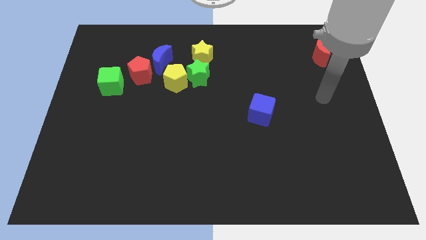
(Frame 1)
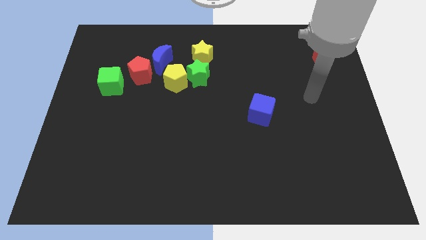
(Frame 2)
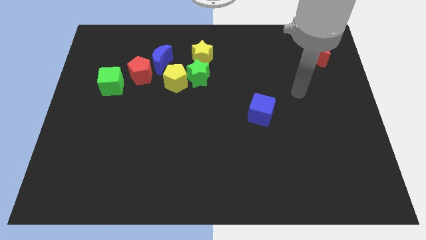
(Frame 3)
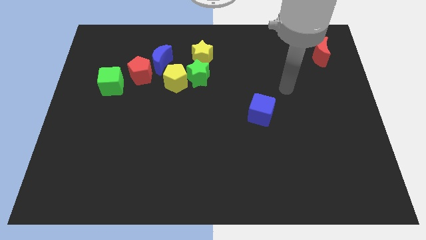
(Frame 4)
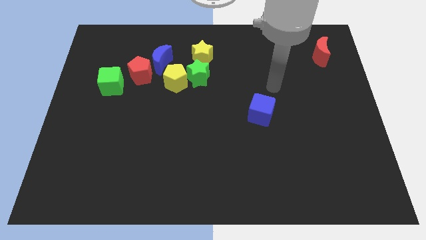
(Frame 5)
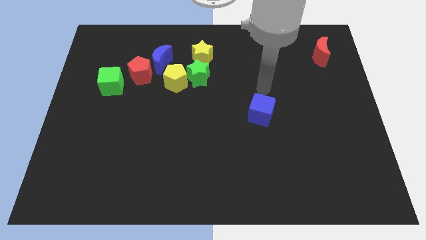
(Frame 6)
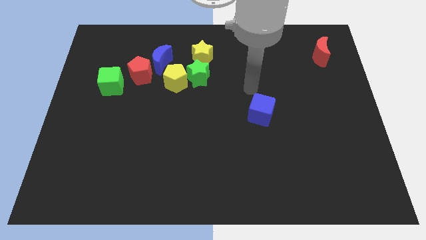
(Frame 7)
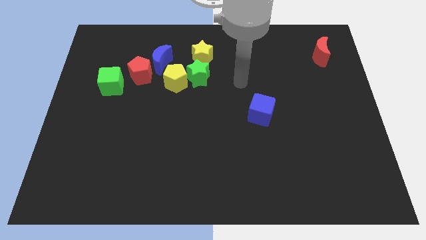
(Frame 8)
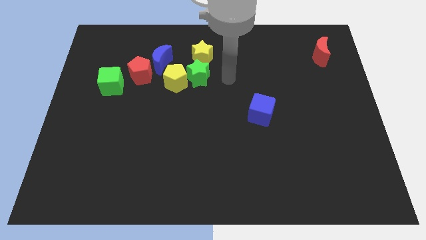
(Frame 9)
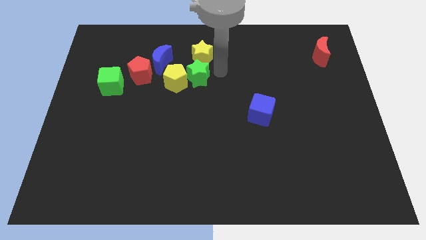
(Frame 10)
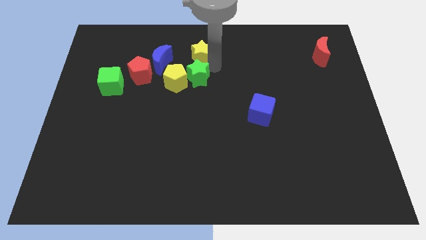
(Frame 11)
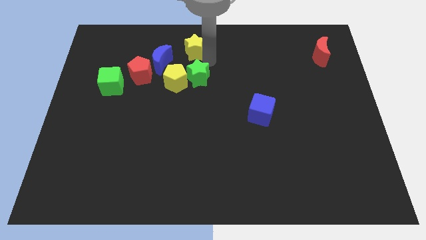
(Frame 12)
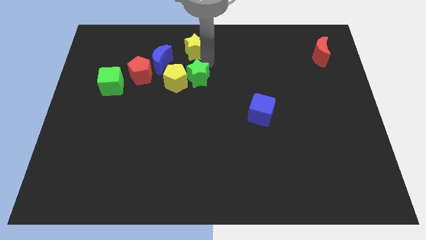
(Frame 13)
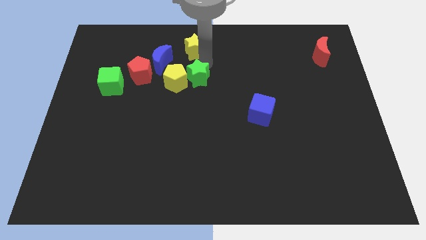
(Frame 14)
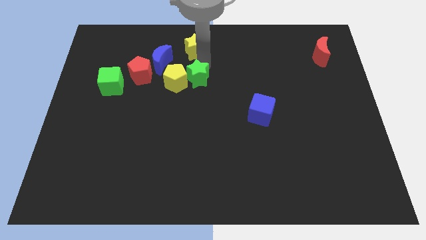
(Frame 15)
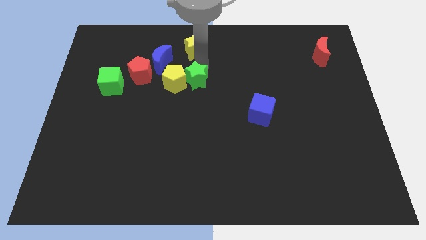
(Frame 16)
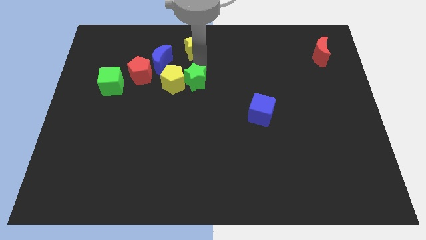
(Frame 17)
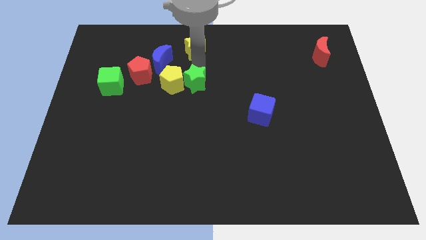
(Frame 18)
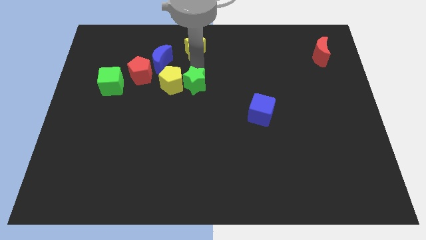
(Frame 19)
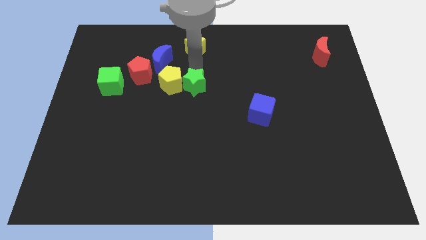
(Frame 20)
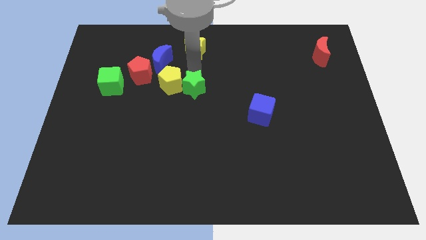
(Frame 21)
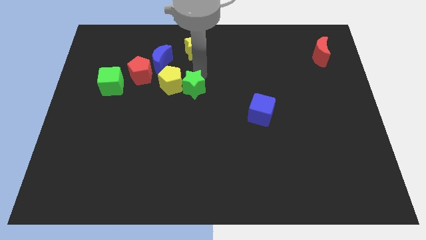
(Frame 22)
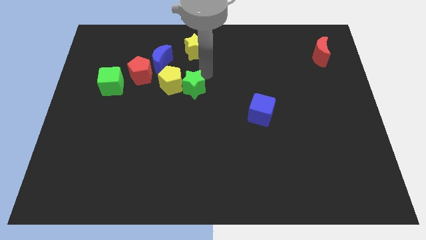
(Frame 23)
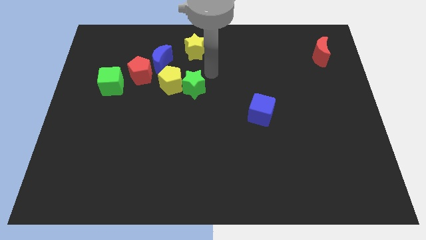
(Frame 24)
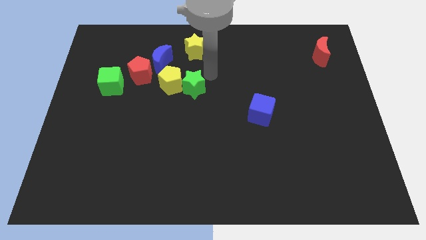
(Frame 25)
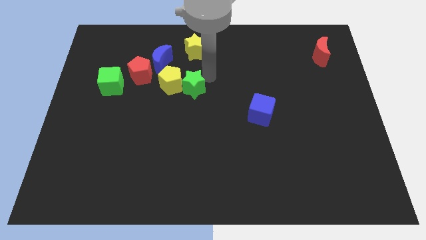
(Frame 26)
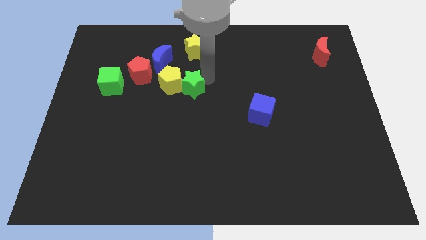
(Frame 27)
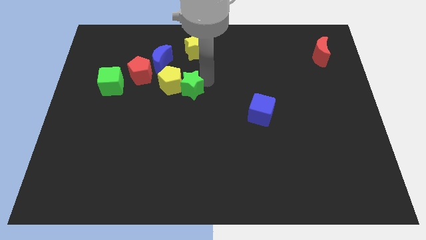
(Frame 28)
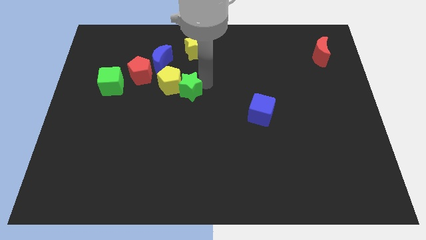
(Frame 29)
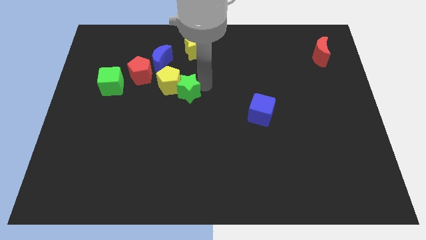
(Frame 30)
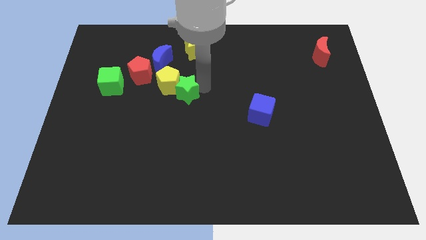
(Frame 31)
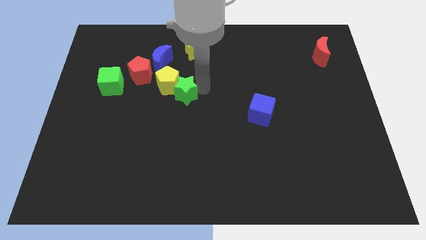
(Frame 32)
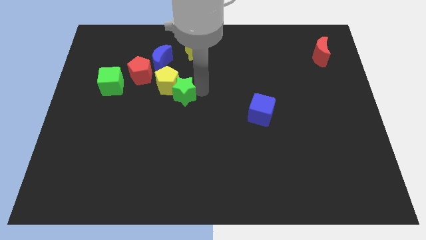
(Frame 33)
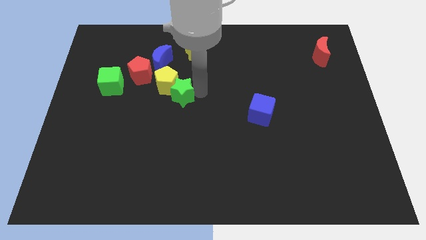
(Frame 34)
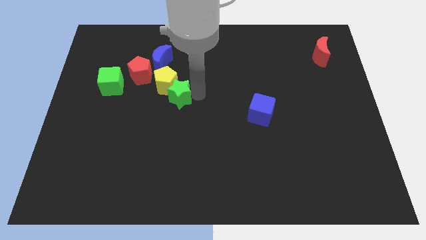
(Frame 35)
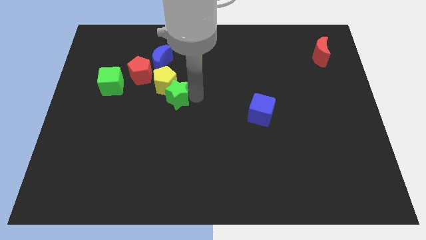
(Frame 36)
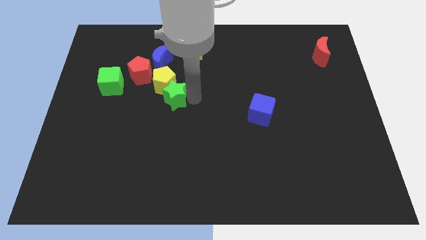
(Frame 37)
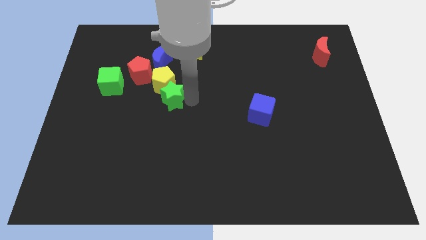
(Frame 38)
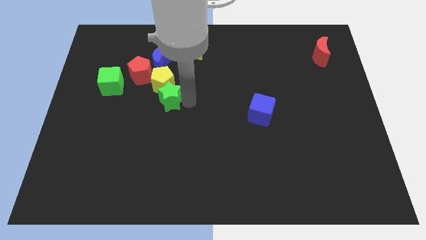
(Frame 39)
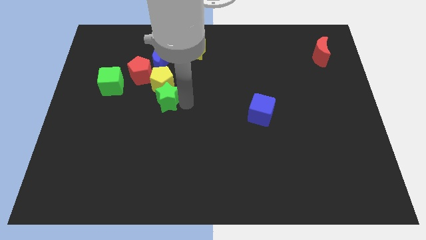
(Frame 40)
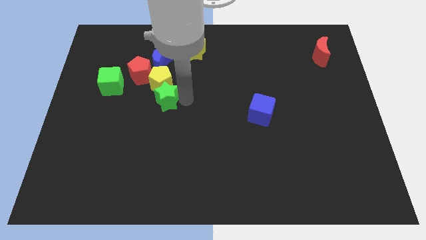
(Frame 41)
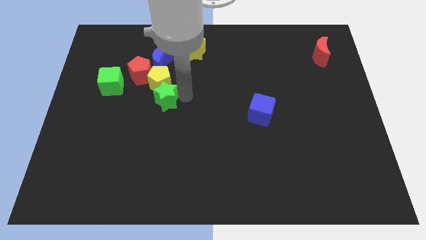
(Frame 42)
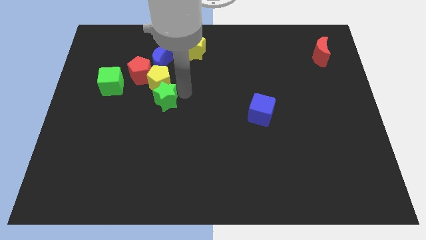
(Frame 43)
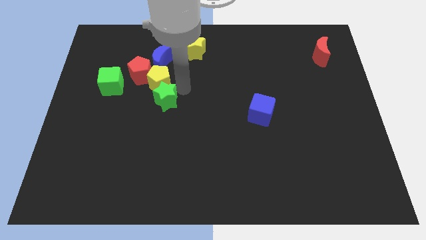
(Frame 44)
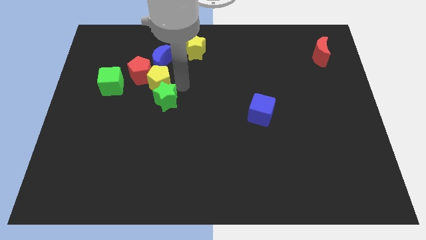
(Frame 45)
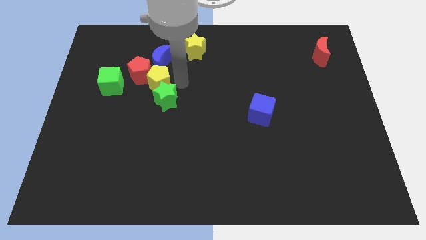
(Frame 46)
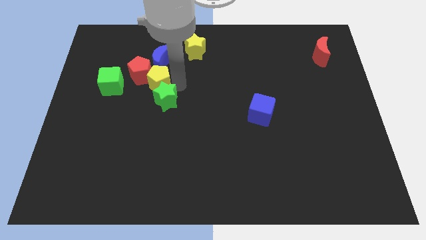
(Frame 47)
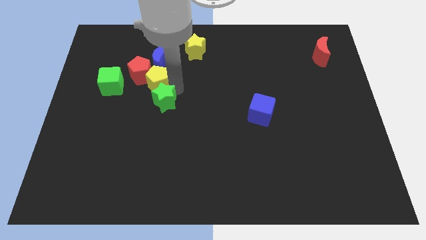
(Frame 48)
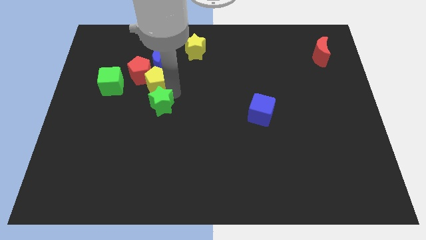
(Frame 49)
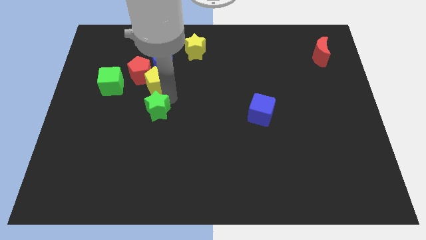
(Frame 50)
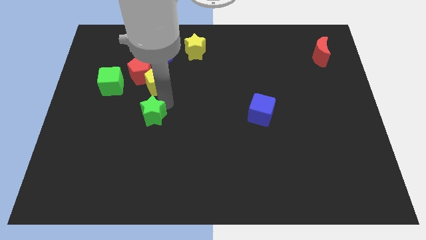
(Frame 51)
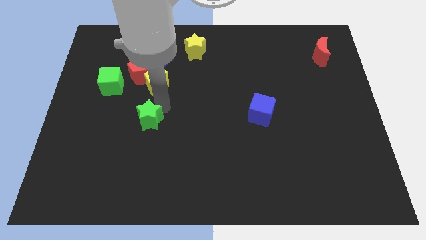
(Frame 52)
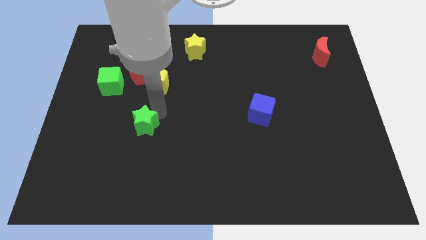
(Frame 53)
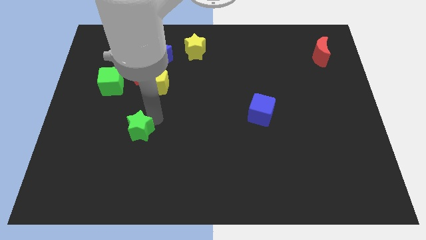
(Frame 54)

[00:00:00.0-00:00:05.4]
push the green star down and to the left diagonally

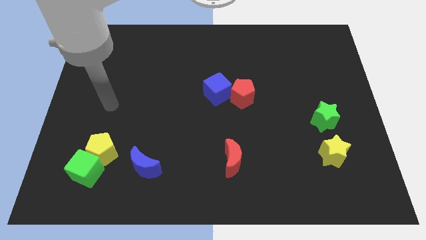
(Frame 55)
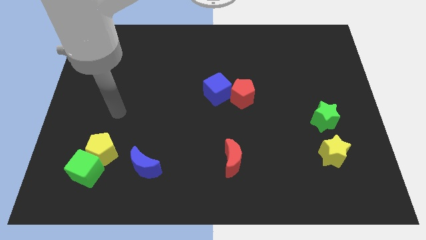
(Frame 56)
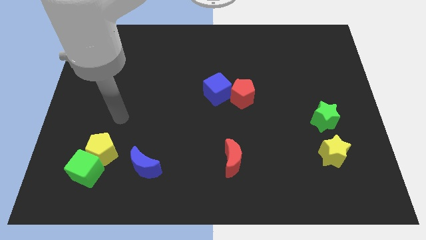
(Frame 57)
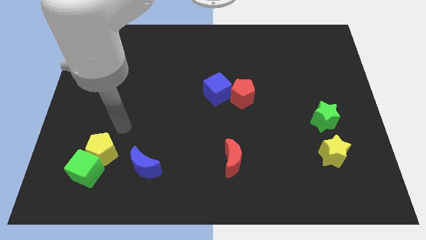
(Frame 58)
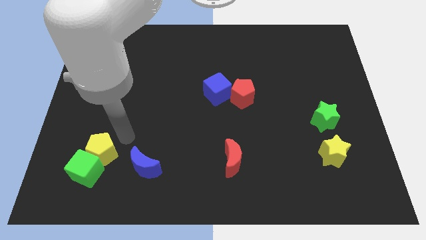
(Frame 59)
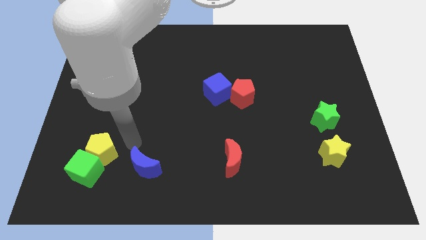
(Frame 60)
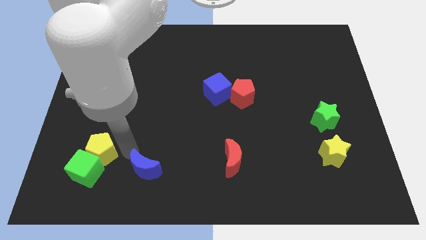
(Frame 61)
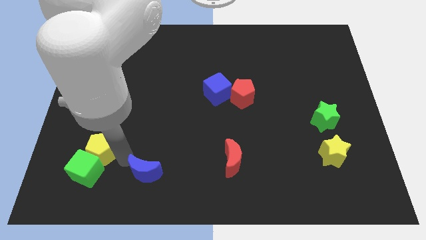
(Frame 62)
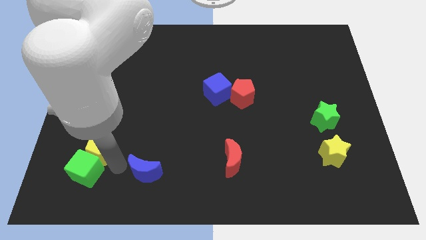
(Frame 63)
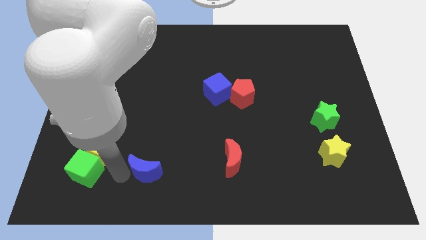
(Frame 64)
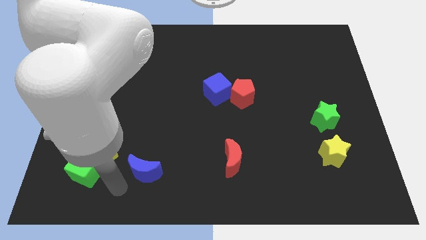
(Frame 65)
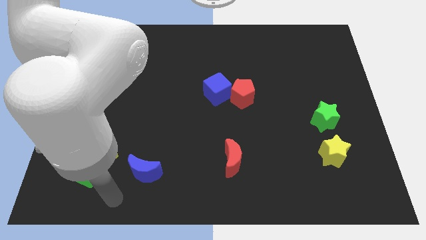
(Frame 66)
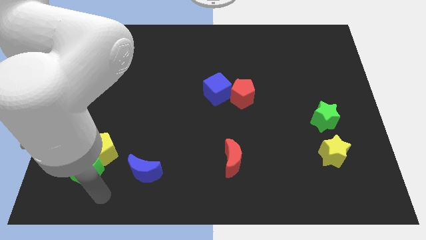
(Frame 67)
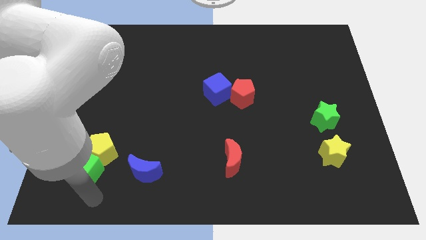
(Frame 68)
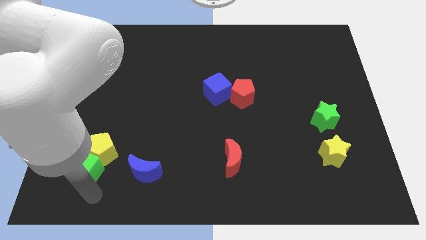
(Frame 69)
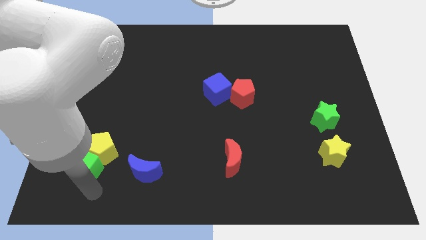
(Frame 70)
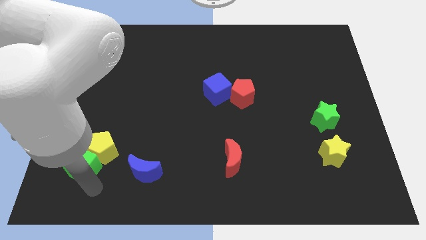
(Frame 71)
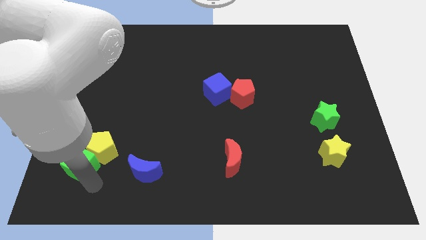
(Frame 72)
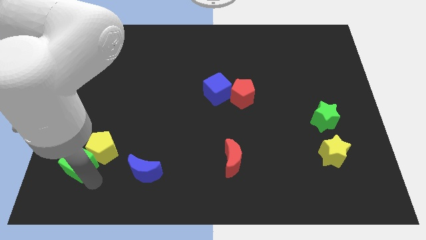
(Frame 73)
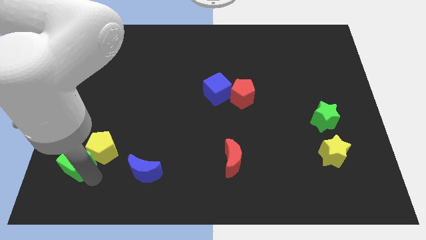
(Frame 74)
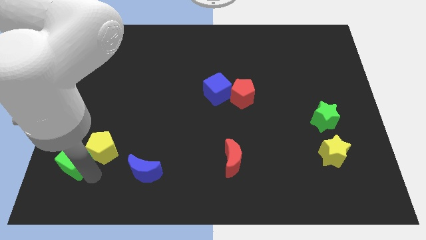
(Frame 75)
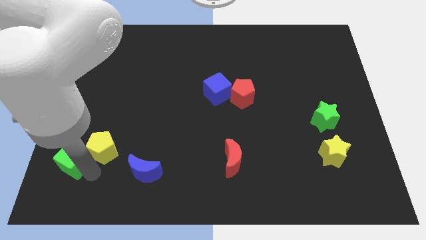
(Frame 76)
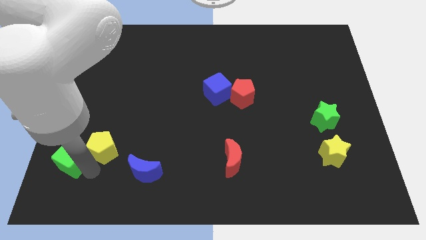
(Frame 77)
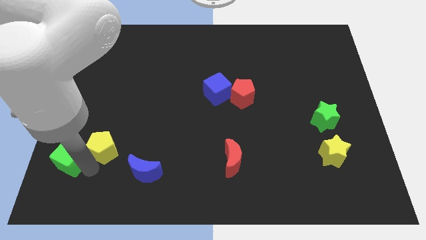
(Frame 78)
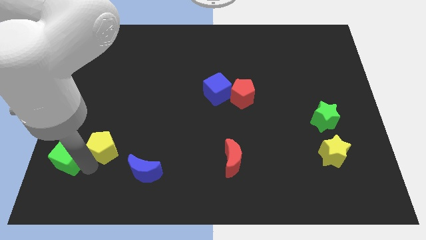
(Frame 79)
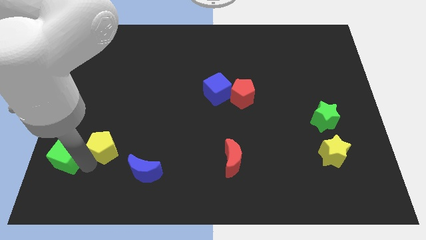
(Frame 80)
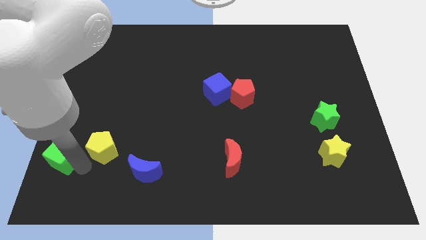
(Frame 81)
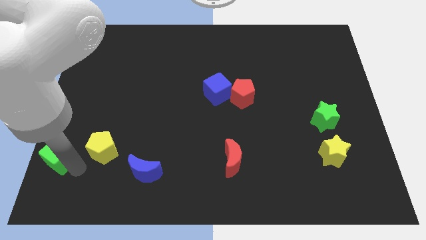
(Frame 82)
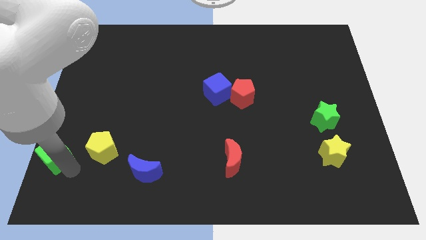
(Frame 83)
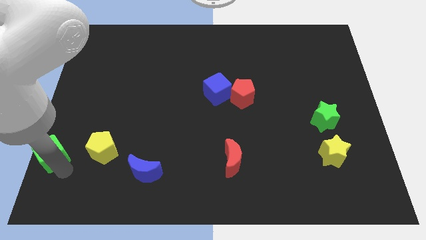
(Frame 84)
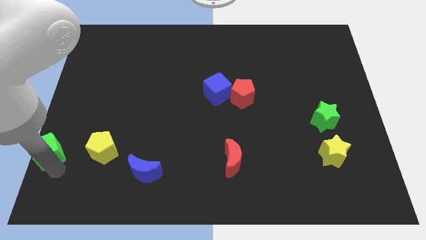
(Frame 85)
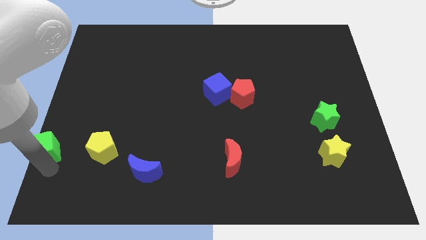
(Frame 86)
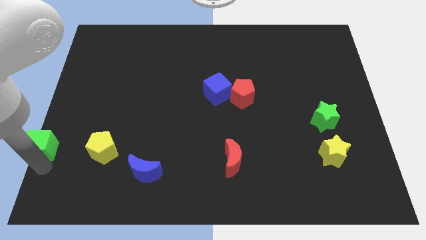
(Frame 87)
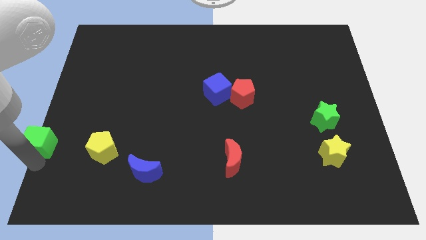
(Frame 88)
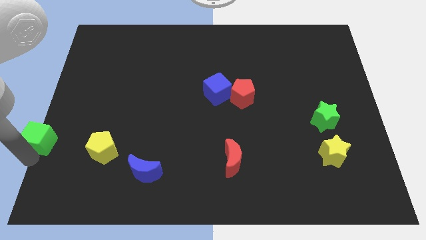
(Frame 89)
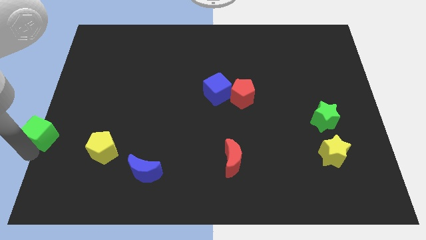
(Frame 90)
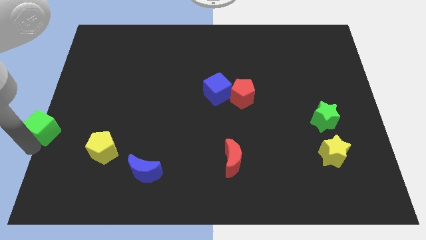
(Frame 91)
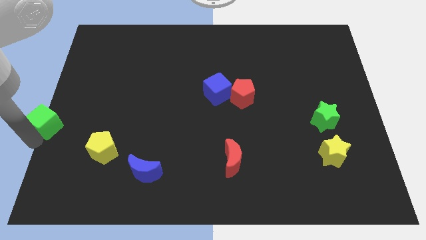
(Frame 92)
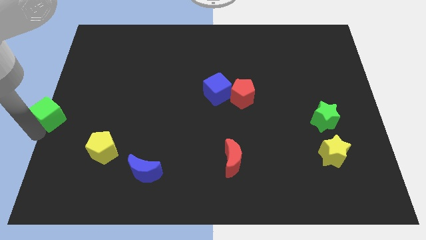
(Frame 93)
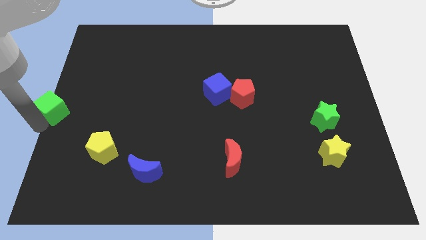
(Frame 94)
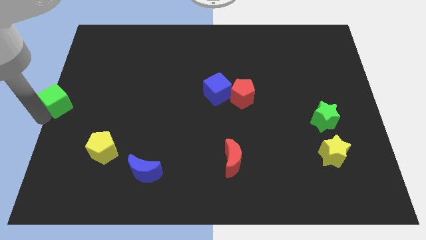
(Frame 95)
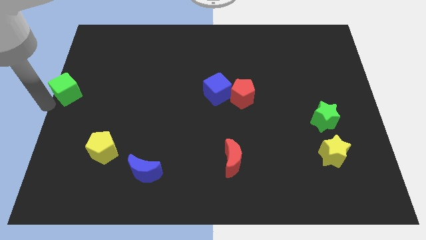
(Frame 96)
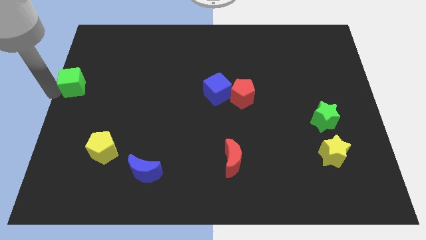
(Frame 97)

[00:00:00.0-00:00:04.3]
move the green cube upwards
